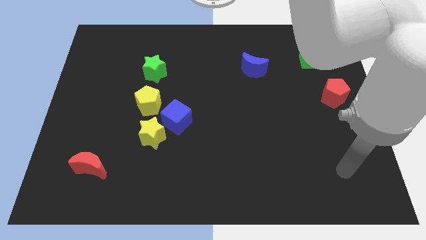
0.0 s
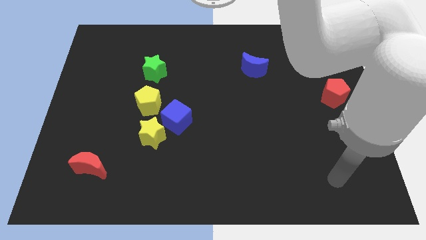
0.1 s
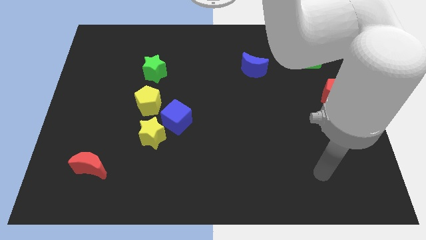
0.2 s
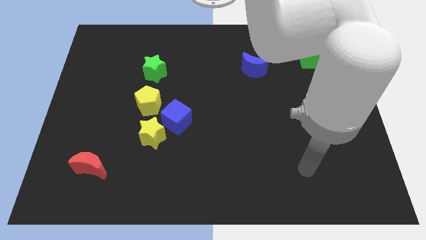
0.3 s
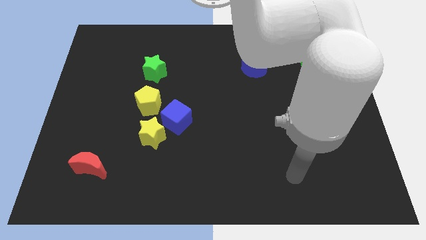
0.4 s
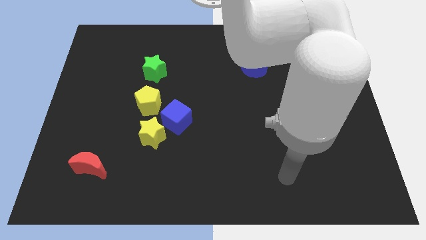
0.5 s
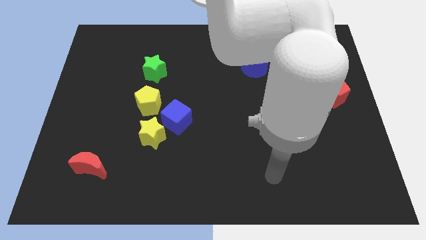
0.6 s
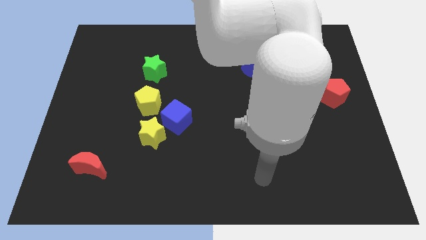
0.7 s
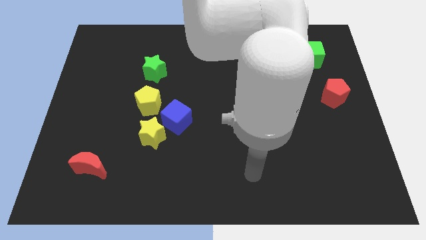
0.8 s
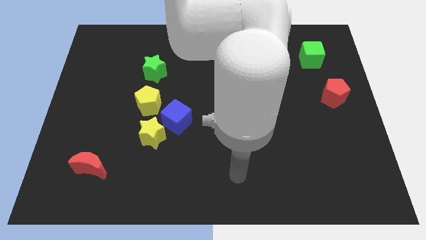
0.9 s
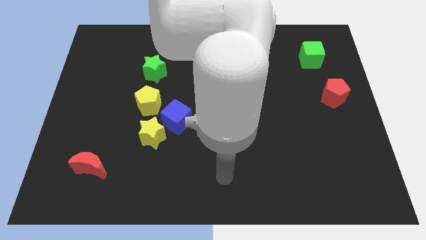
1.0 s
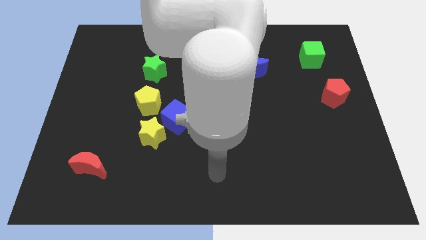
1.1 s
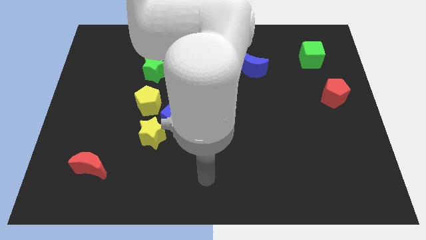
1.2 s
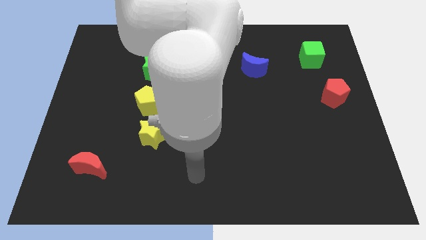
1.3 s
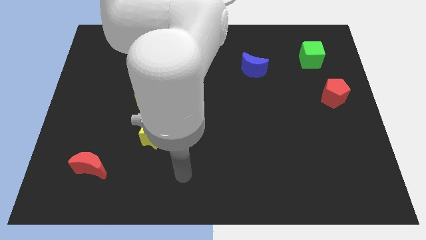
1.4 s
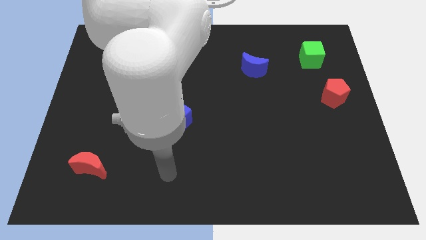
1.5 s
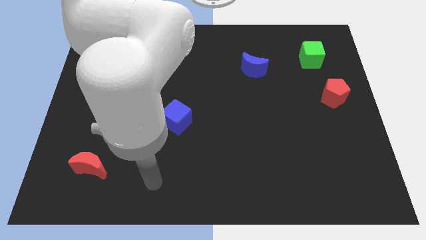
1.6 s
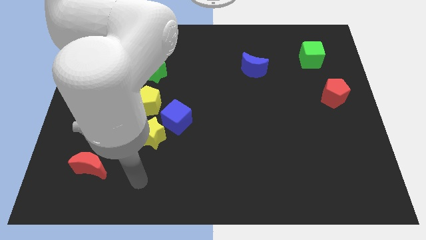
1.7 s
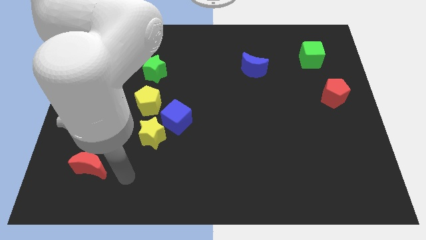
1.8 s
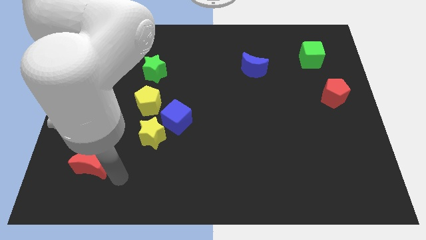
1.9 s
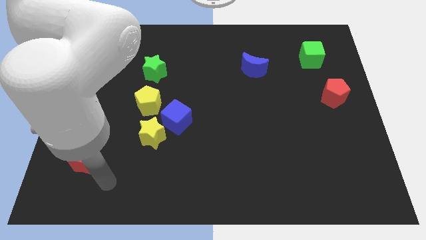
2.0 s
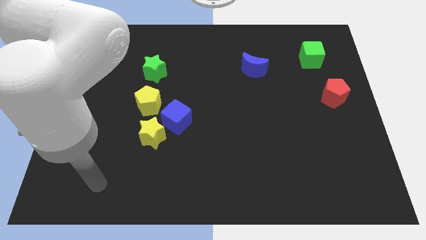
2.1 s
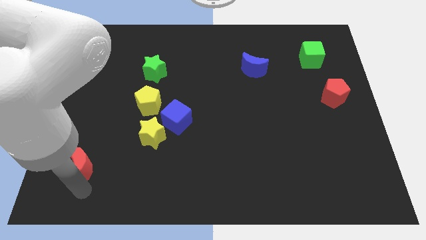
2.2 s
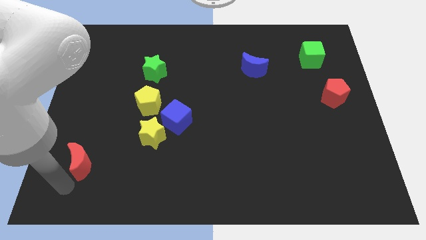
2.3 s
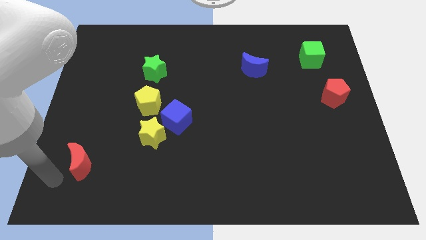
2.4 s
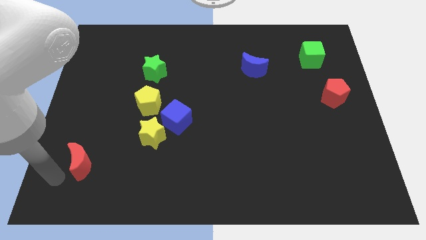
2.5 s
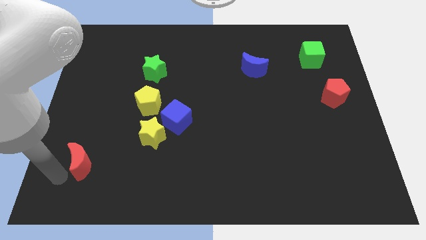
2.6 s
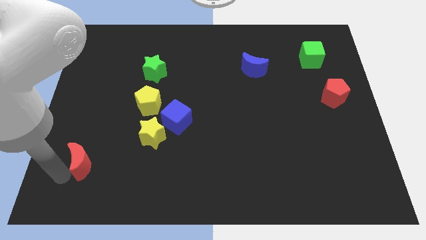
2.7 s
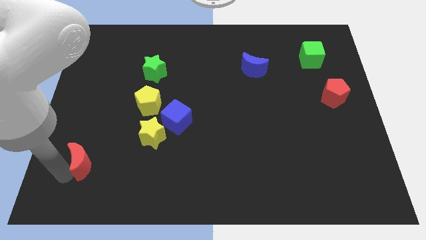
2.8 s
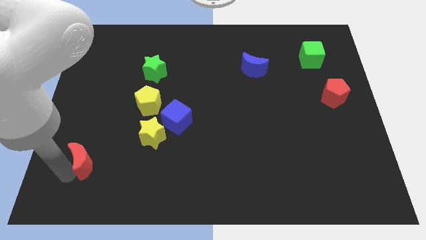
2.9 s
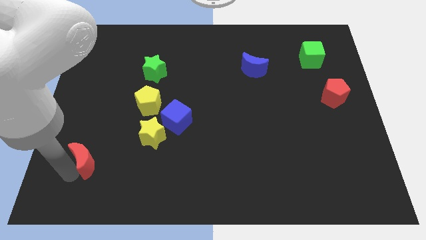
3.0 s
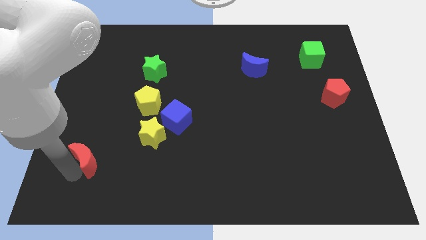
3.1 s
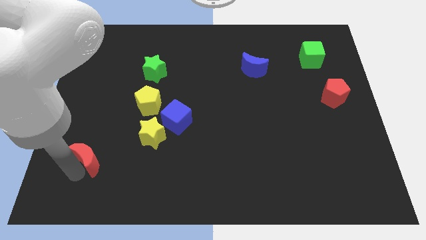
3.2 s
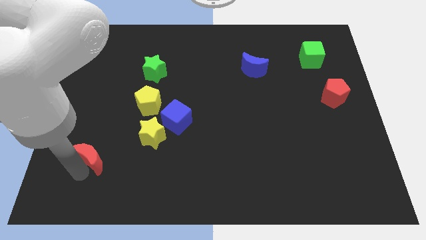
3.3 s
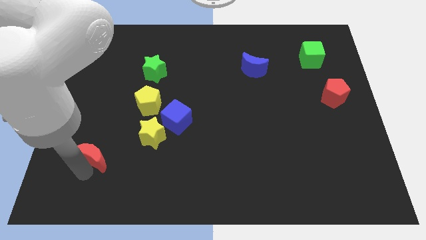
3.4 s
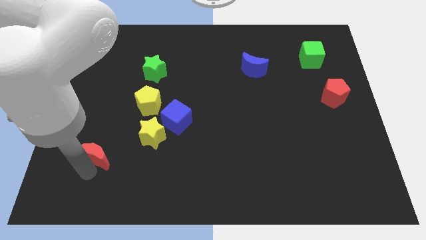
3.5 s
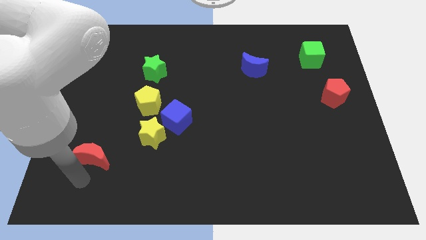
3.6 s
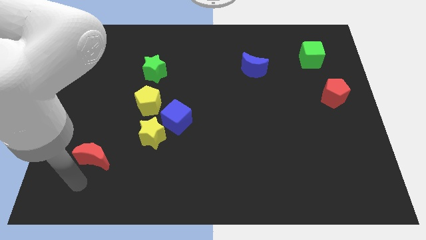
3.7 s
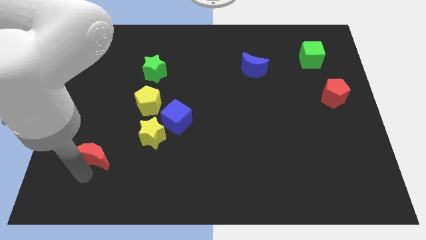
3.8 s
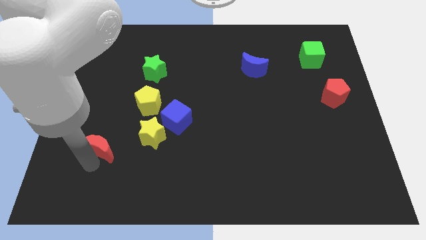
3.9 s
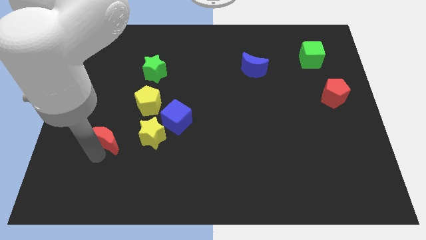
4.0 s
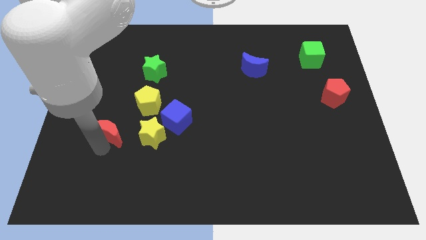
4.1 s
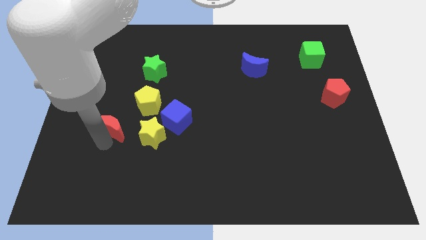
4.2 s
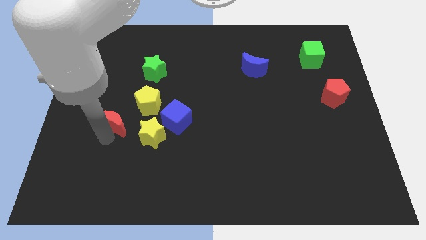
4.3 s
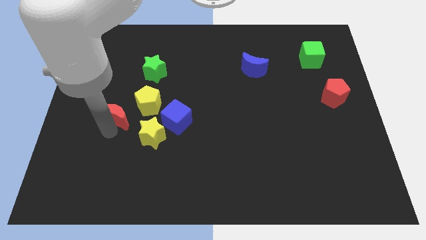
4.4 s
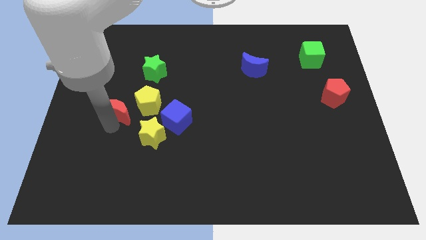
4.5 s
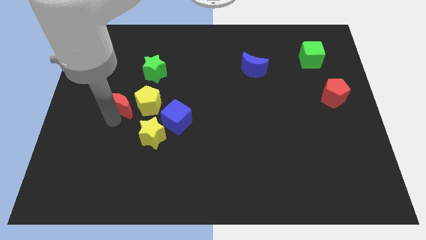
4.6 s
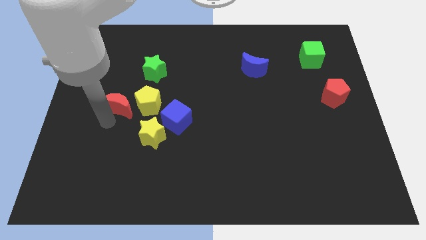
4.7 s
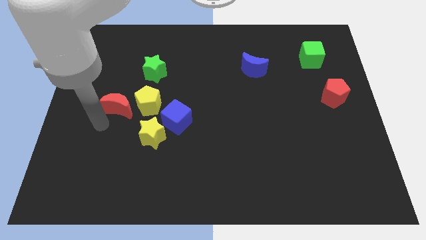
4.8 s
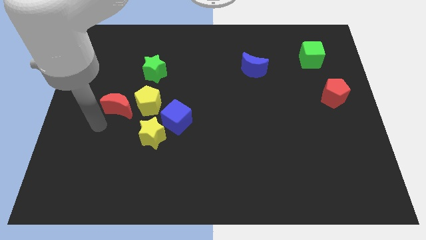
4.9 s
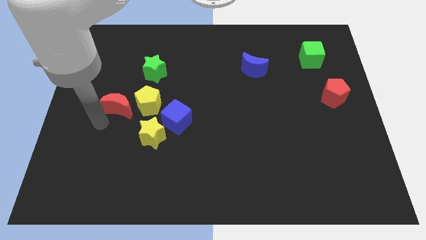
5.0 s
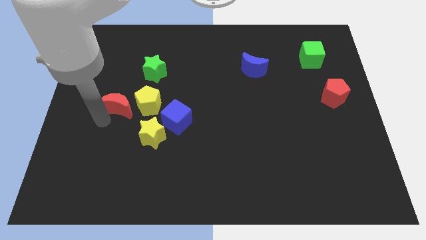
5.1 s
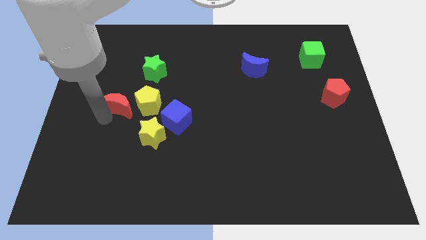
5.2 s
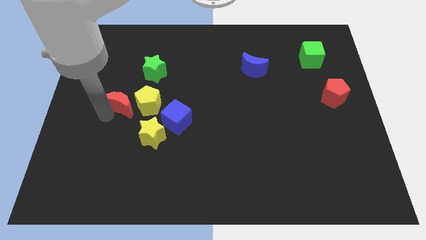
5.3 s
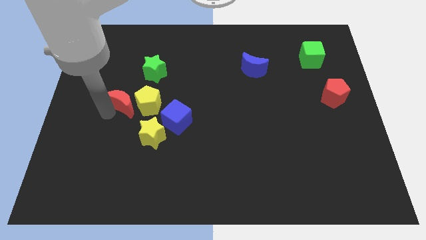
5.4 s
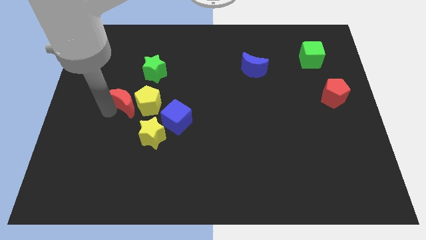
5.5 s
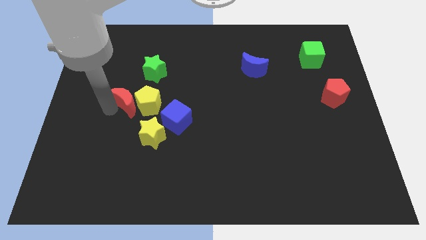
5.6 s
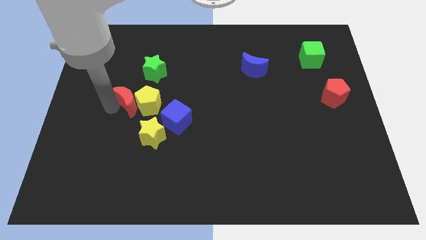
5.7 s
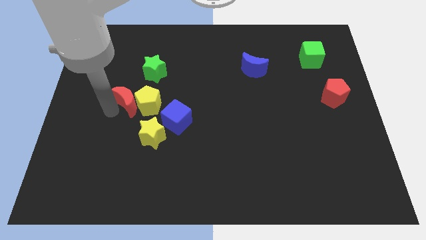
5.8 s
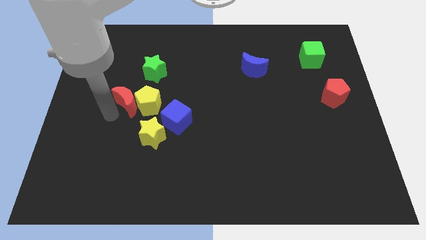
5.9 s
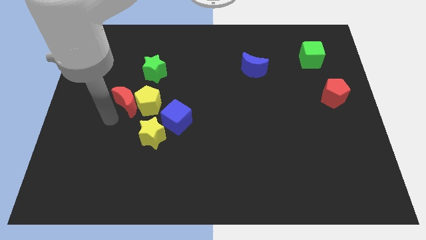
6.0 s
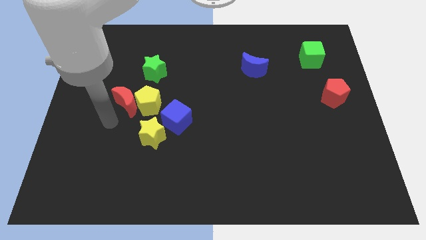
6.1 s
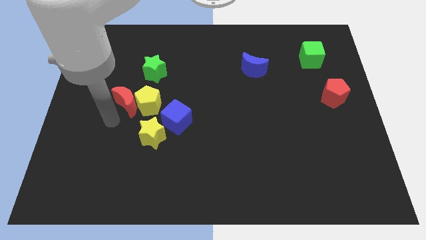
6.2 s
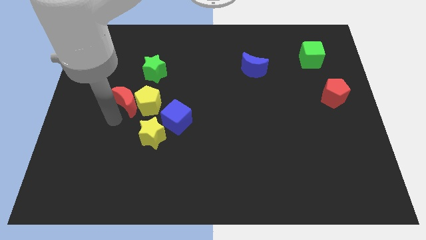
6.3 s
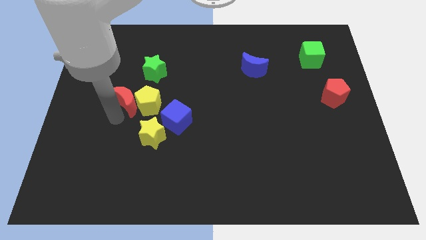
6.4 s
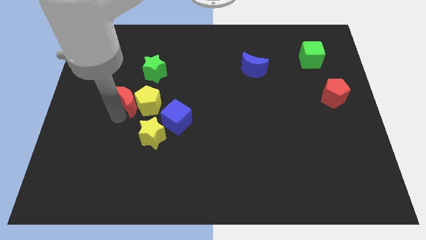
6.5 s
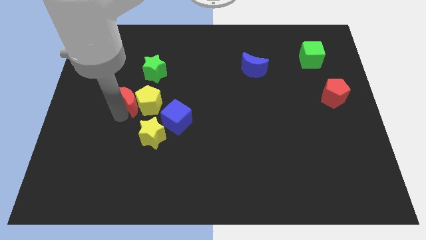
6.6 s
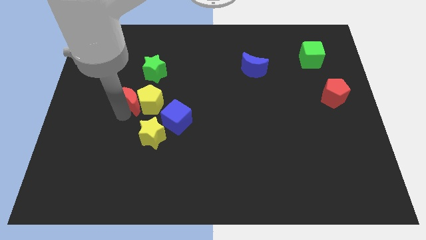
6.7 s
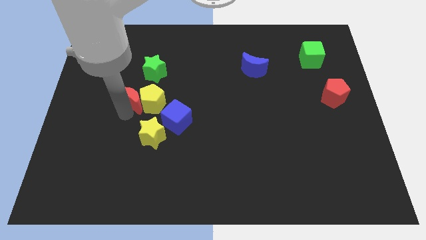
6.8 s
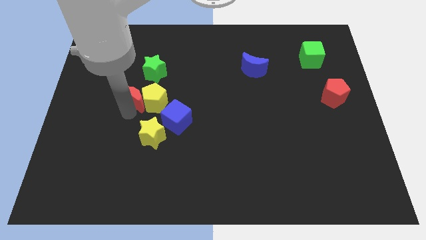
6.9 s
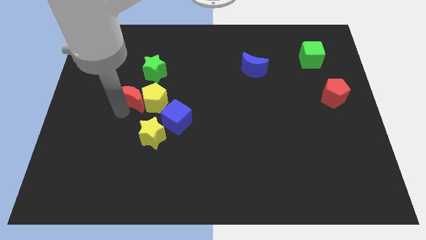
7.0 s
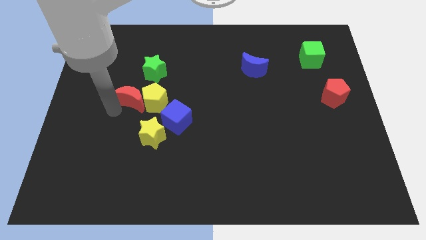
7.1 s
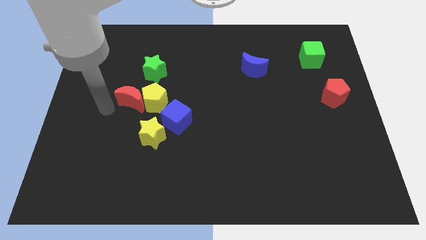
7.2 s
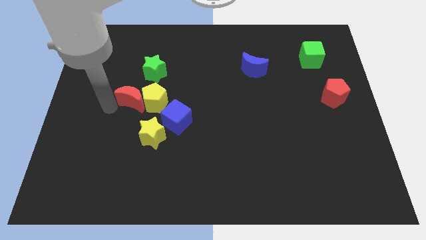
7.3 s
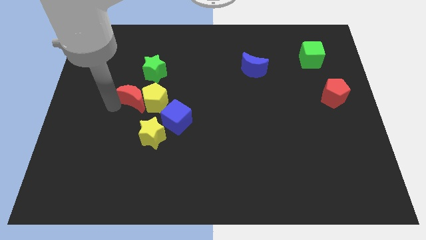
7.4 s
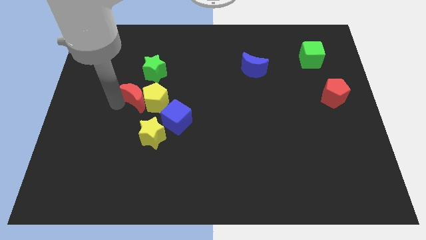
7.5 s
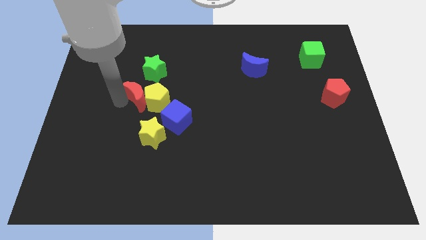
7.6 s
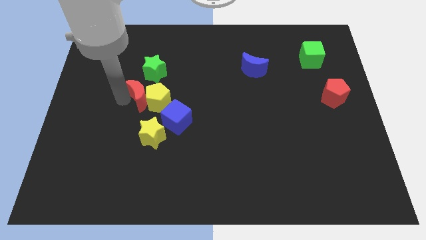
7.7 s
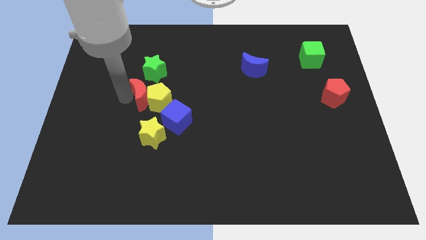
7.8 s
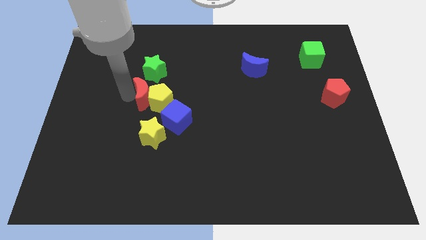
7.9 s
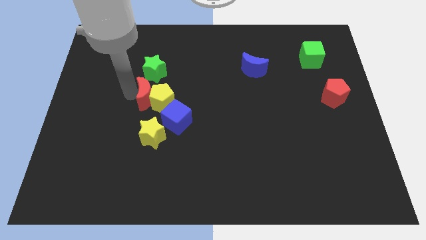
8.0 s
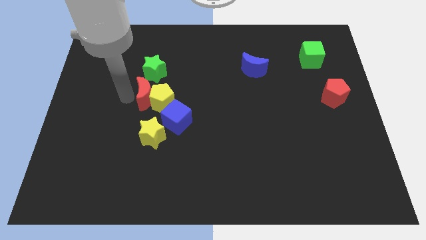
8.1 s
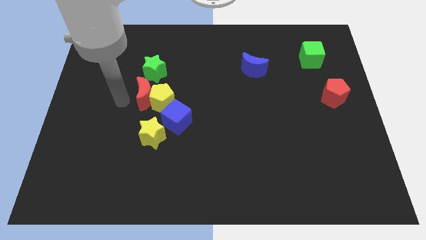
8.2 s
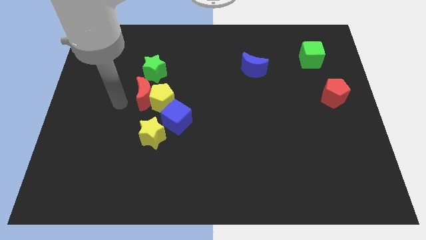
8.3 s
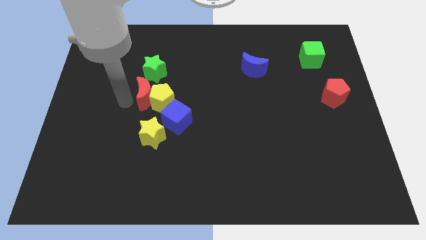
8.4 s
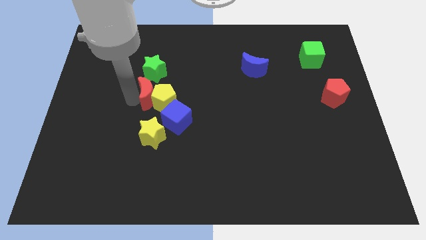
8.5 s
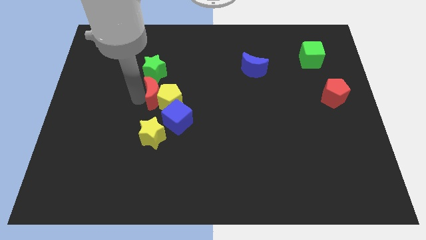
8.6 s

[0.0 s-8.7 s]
slide the red moon upwards and then right
